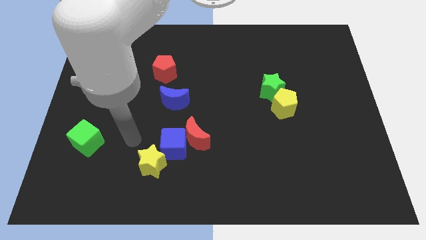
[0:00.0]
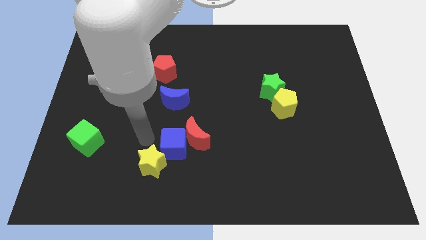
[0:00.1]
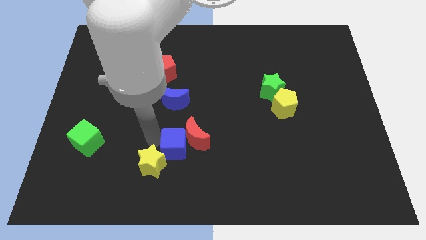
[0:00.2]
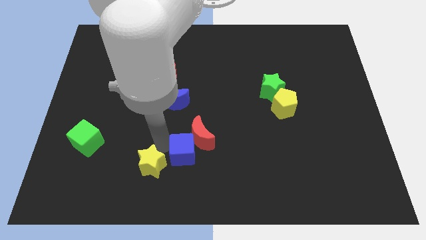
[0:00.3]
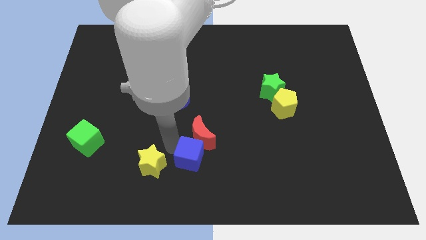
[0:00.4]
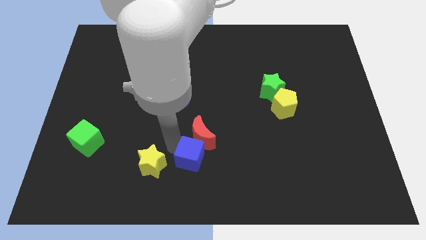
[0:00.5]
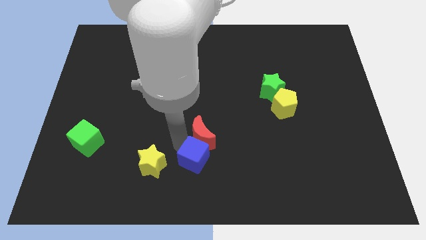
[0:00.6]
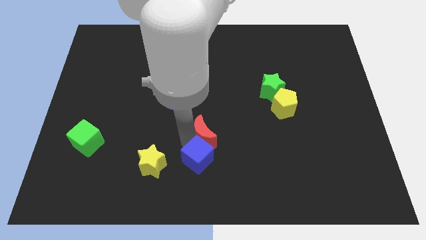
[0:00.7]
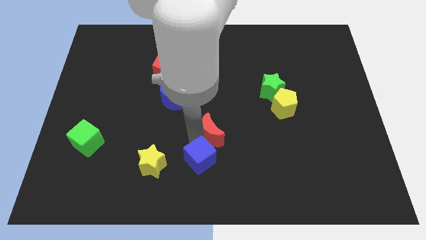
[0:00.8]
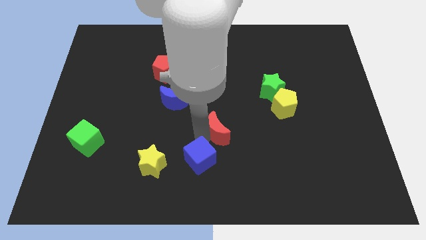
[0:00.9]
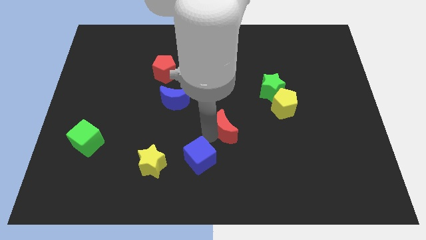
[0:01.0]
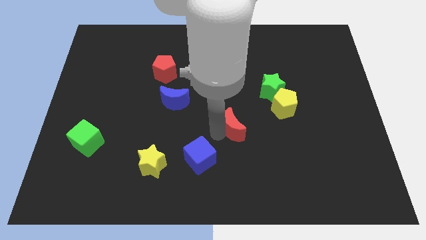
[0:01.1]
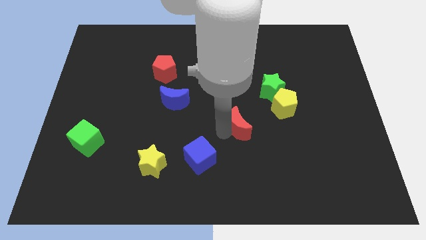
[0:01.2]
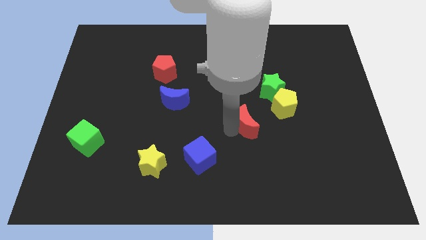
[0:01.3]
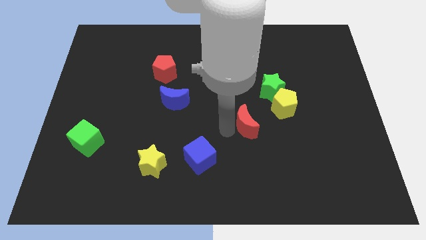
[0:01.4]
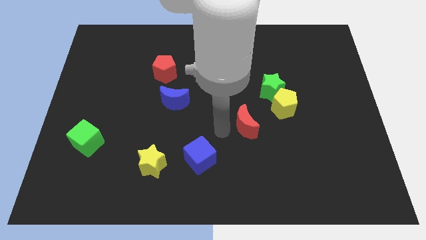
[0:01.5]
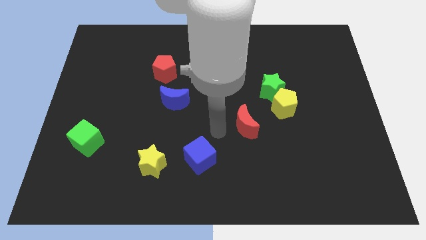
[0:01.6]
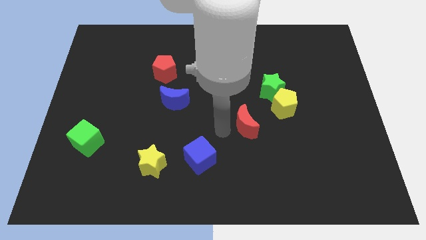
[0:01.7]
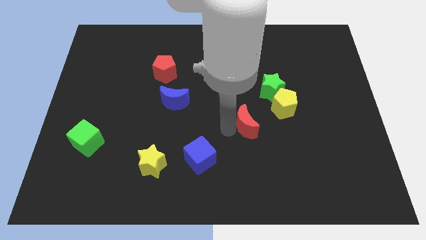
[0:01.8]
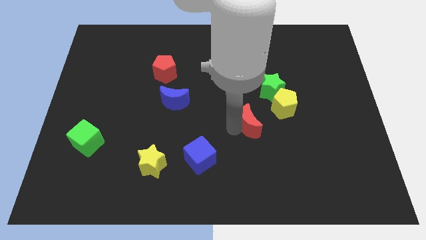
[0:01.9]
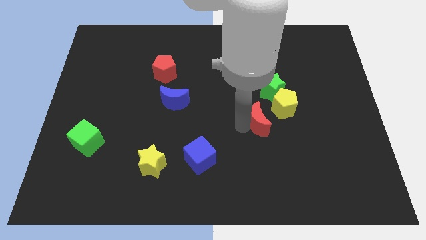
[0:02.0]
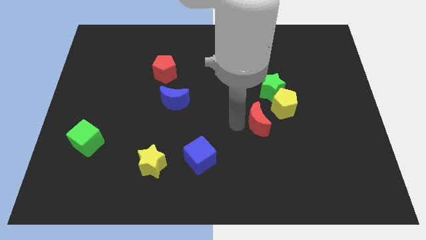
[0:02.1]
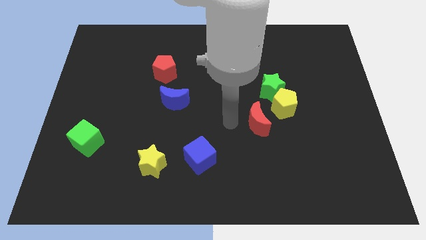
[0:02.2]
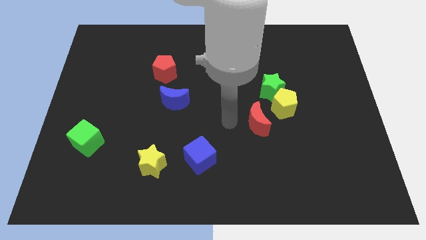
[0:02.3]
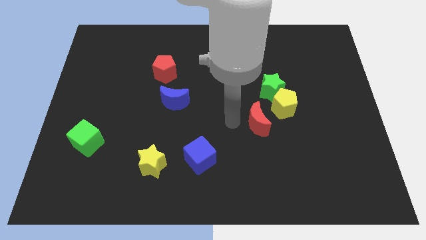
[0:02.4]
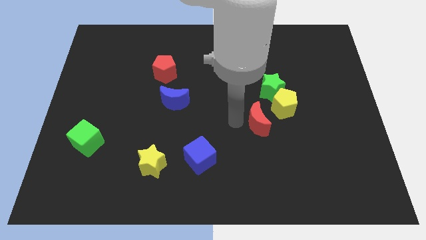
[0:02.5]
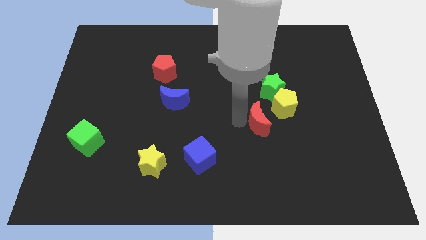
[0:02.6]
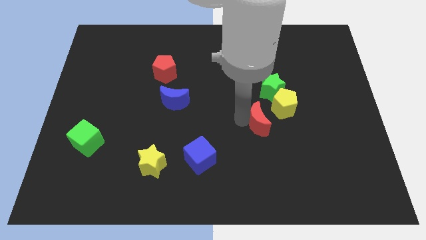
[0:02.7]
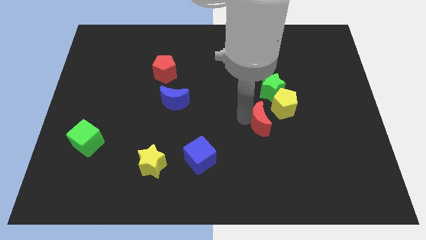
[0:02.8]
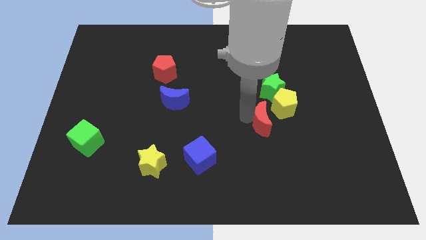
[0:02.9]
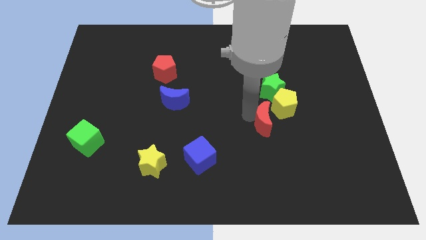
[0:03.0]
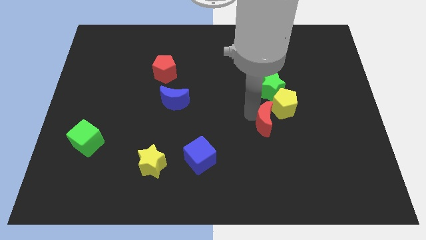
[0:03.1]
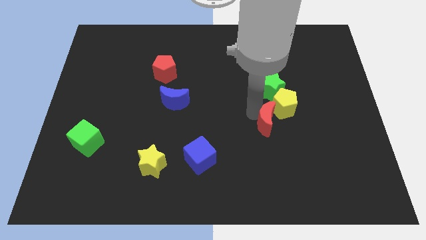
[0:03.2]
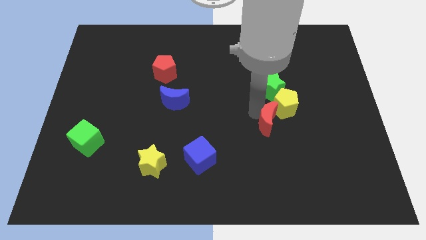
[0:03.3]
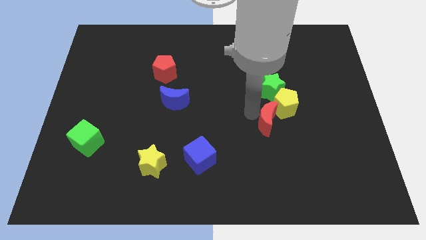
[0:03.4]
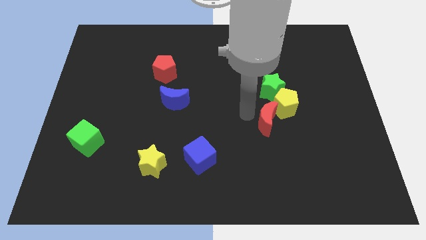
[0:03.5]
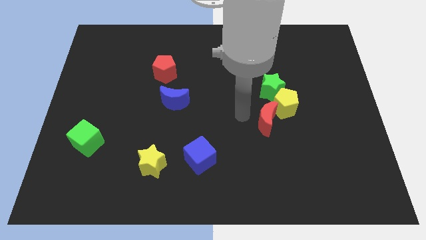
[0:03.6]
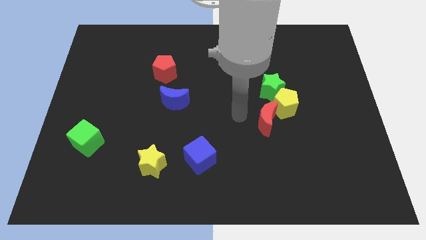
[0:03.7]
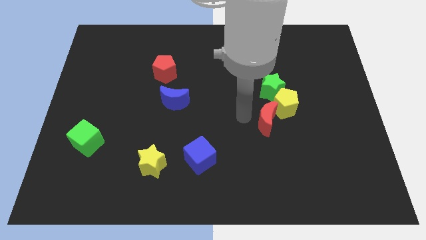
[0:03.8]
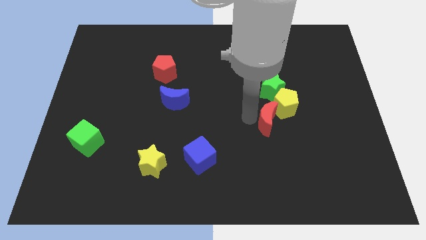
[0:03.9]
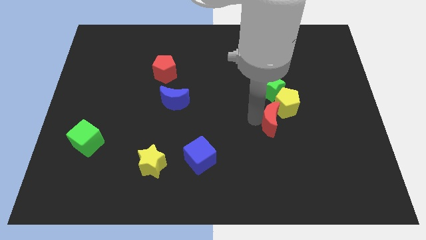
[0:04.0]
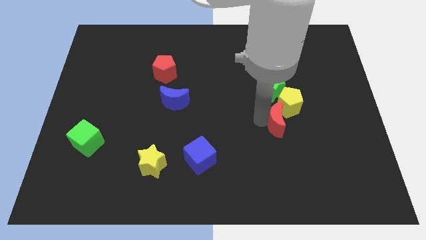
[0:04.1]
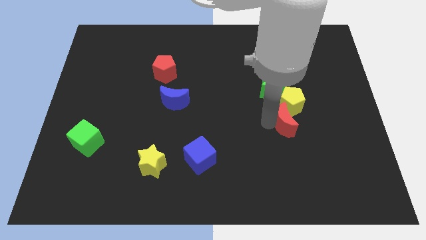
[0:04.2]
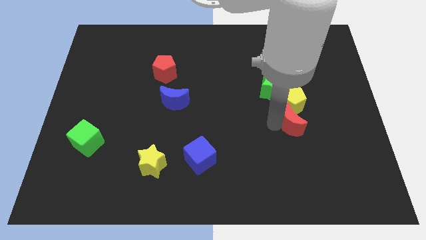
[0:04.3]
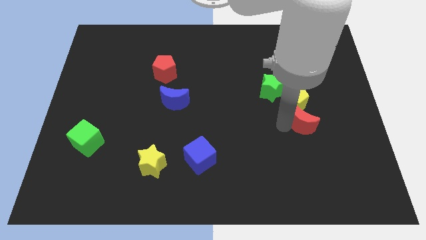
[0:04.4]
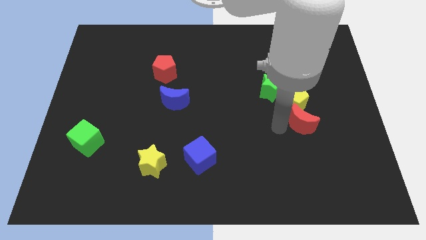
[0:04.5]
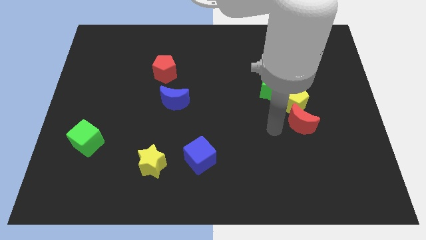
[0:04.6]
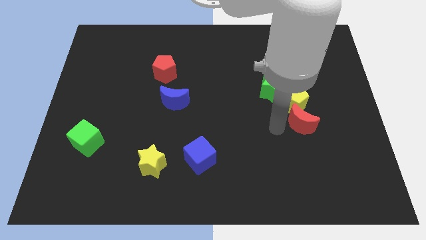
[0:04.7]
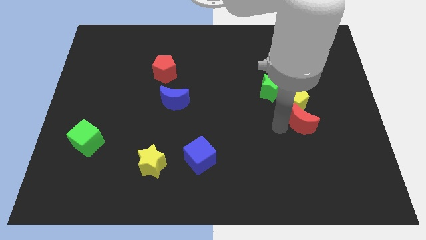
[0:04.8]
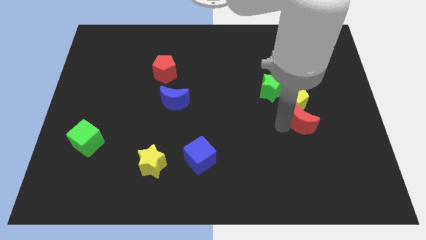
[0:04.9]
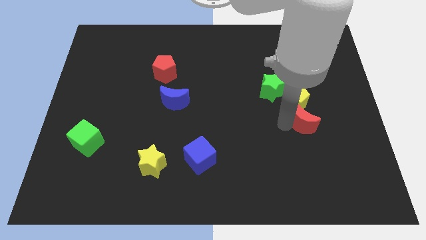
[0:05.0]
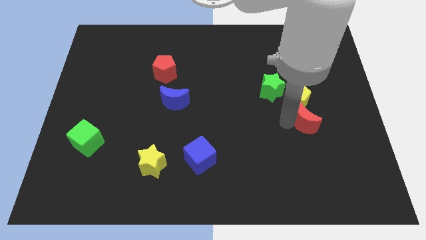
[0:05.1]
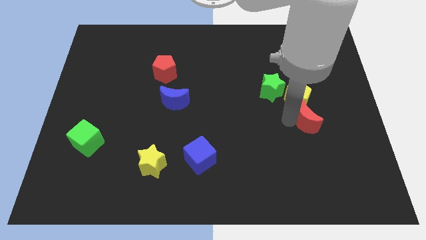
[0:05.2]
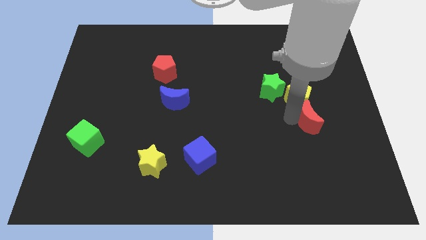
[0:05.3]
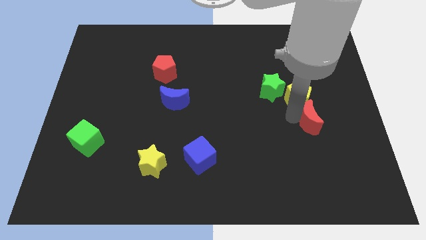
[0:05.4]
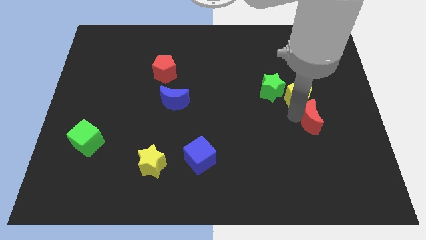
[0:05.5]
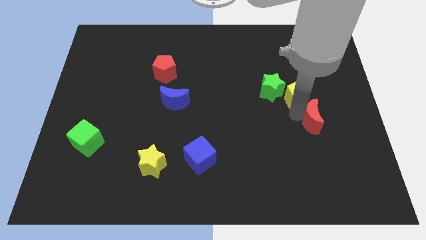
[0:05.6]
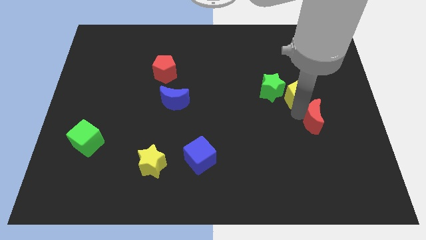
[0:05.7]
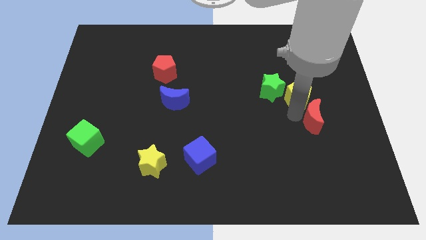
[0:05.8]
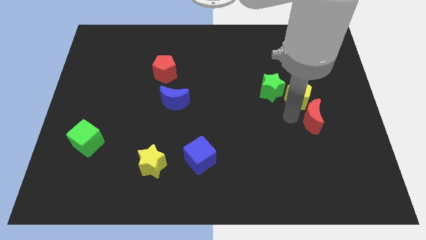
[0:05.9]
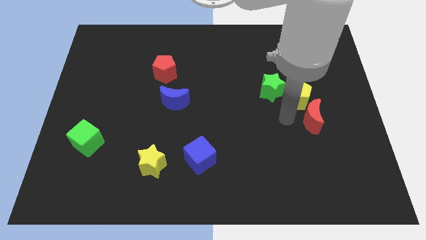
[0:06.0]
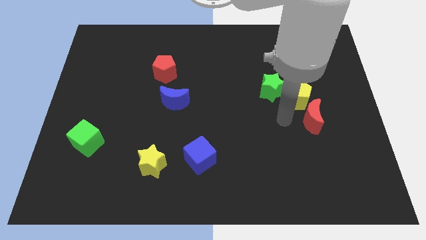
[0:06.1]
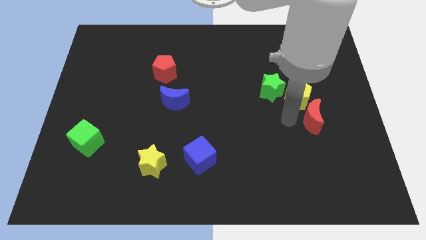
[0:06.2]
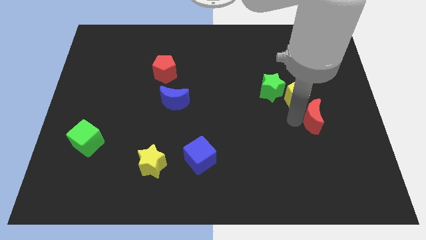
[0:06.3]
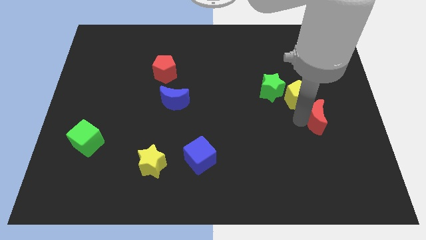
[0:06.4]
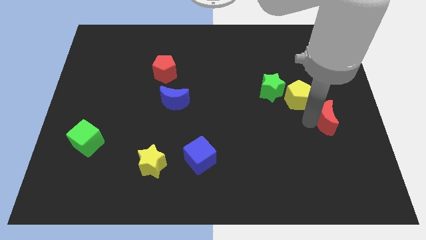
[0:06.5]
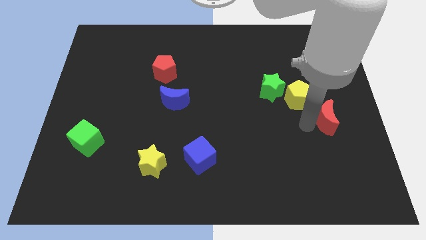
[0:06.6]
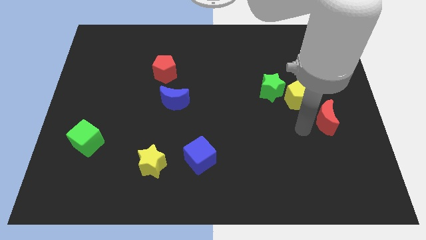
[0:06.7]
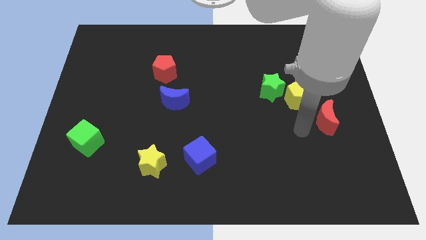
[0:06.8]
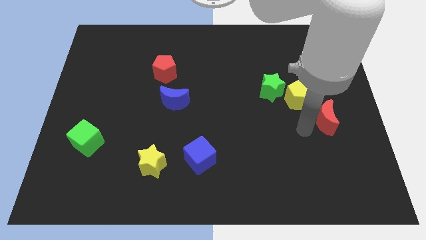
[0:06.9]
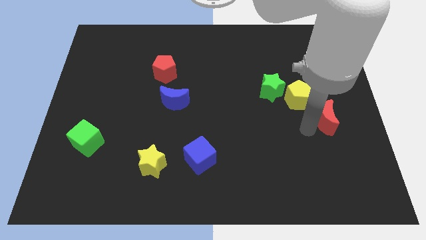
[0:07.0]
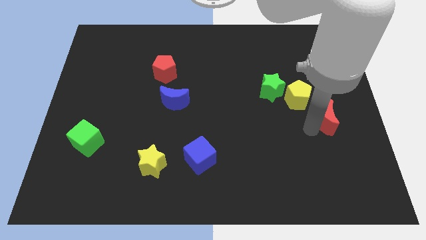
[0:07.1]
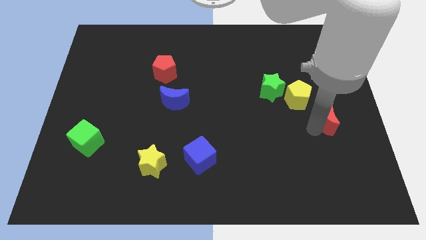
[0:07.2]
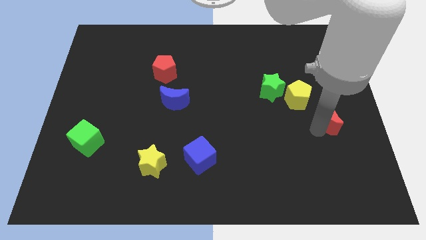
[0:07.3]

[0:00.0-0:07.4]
push the red moon to the center right
